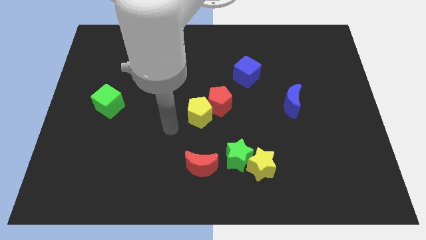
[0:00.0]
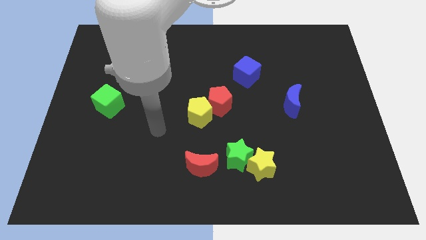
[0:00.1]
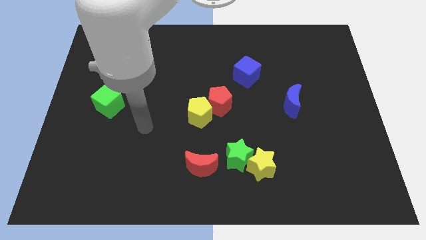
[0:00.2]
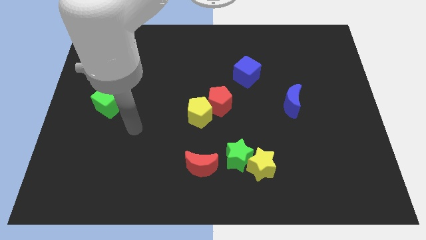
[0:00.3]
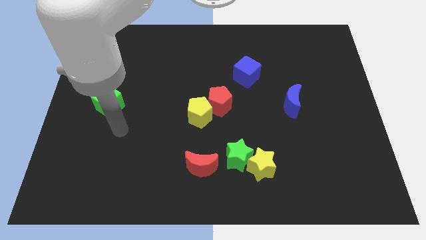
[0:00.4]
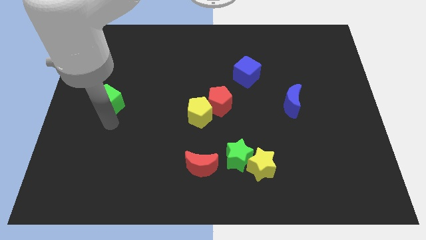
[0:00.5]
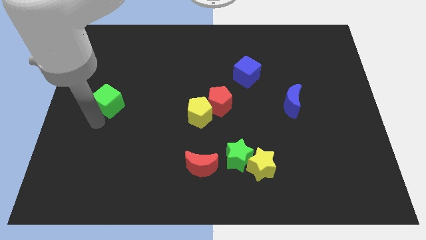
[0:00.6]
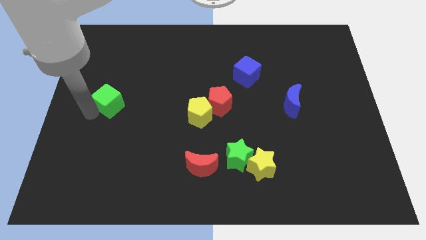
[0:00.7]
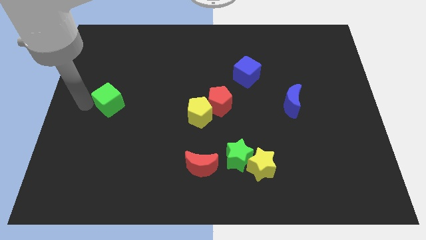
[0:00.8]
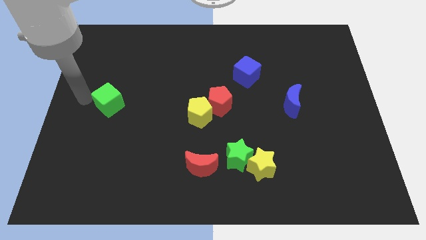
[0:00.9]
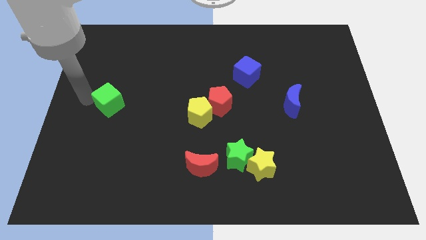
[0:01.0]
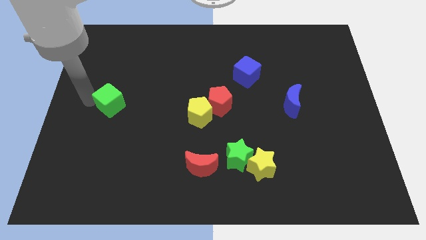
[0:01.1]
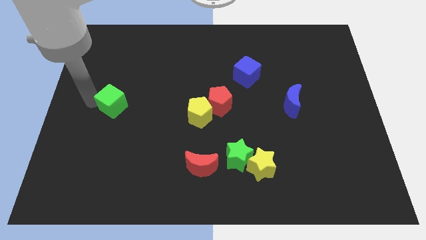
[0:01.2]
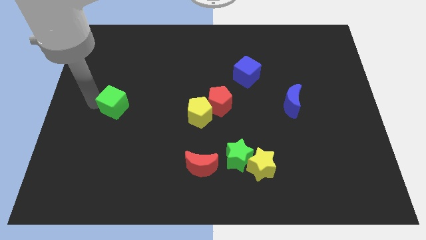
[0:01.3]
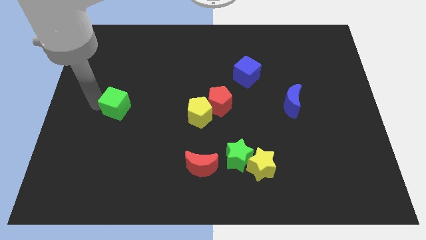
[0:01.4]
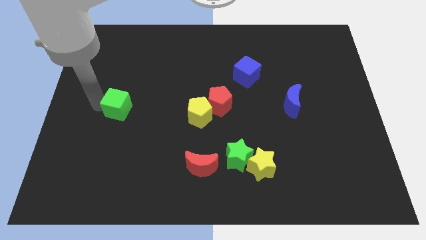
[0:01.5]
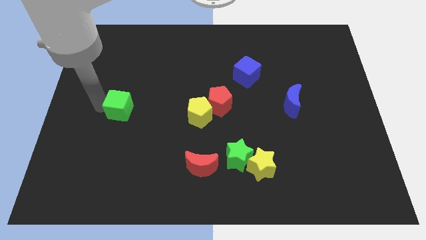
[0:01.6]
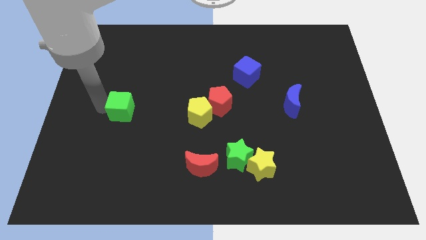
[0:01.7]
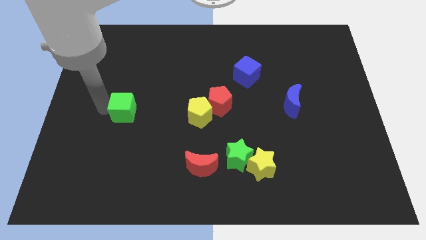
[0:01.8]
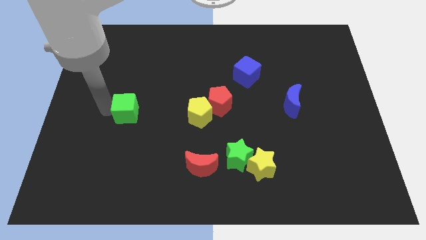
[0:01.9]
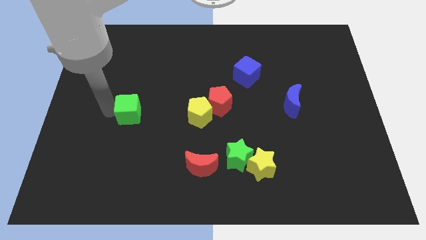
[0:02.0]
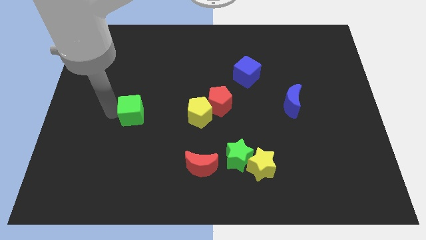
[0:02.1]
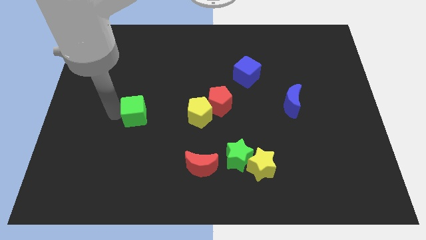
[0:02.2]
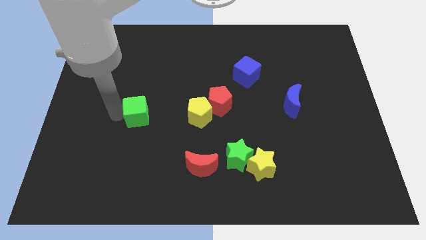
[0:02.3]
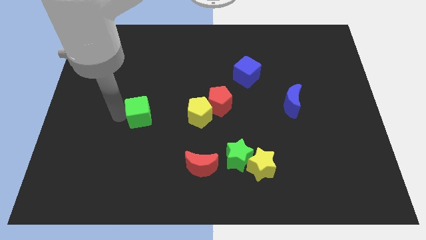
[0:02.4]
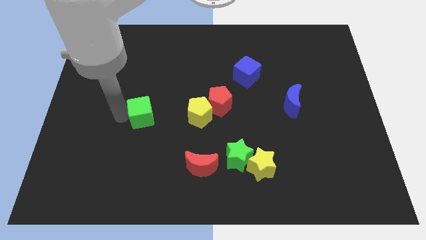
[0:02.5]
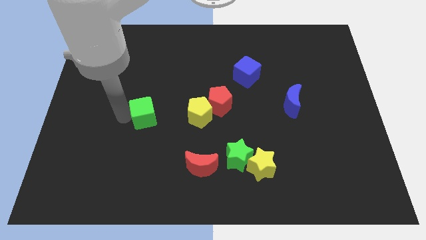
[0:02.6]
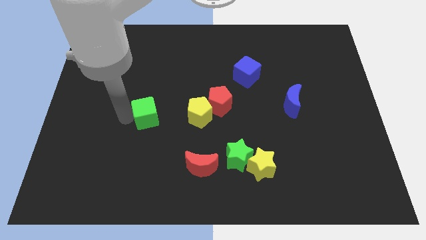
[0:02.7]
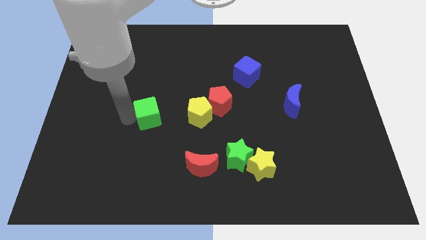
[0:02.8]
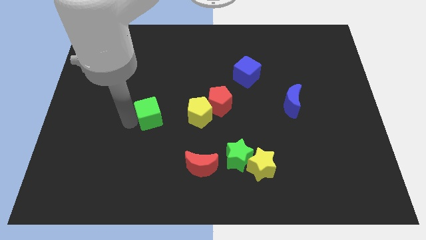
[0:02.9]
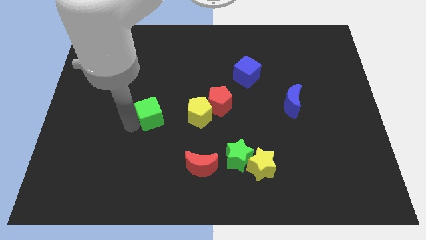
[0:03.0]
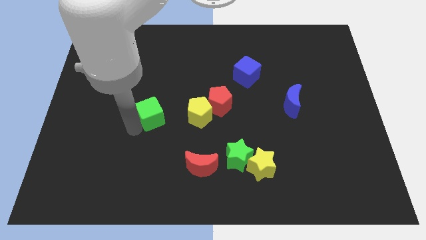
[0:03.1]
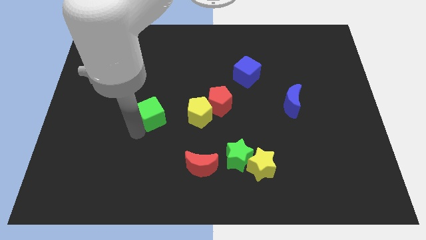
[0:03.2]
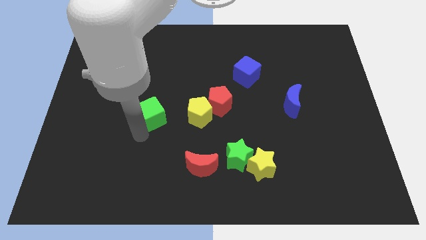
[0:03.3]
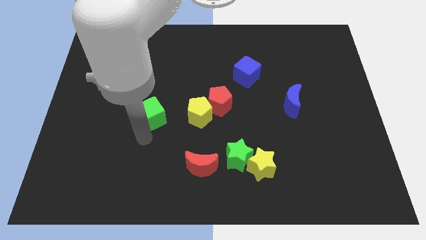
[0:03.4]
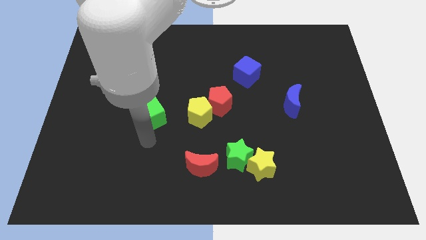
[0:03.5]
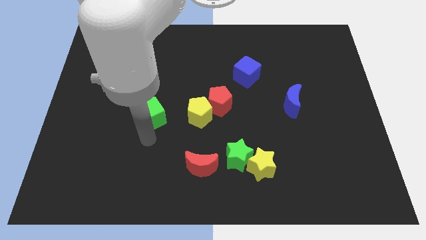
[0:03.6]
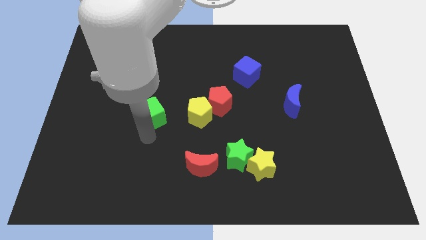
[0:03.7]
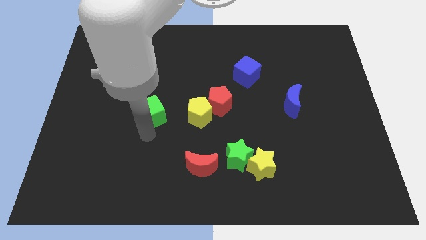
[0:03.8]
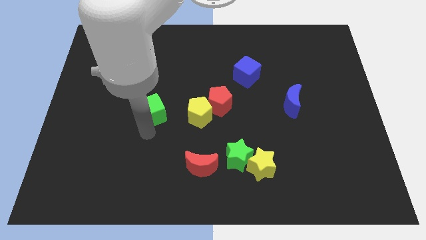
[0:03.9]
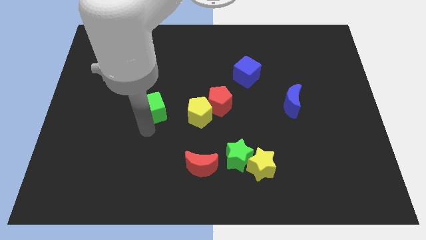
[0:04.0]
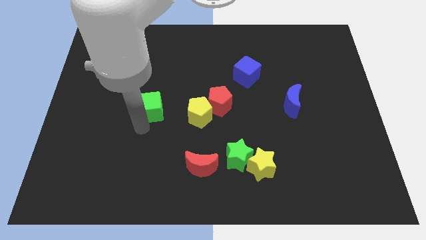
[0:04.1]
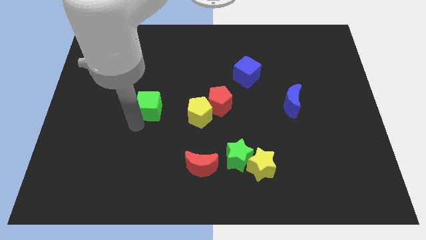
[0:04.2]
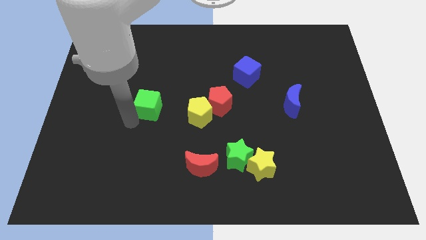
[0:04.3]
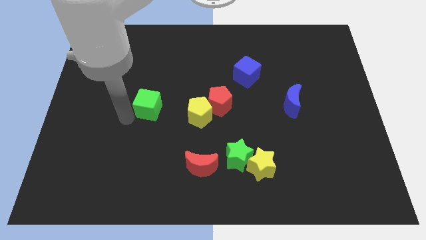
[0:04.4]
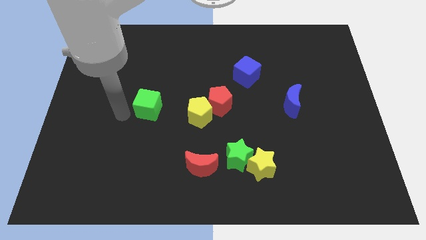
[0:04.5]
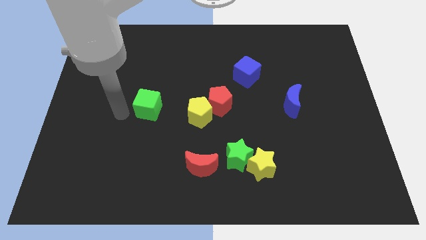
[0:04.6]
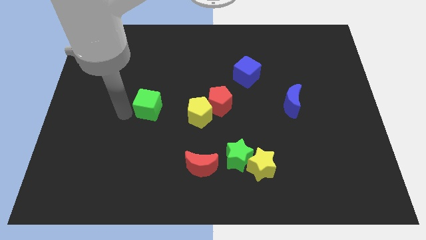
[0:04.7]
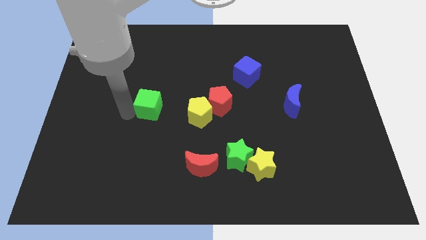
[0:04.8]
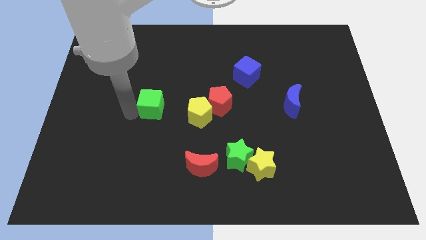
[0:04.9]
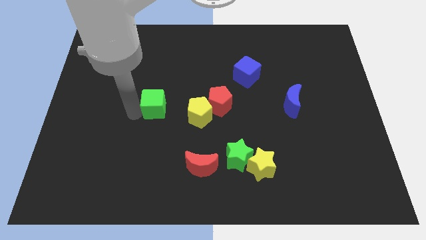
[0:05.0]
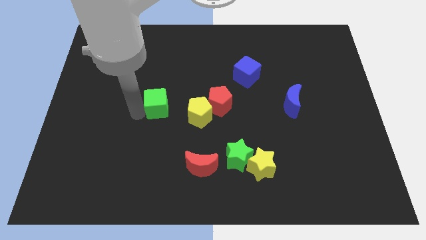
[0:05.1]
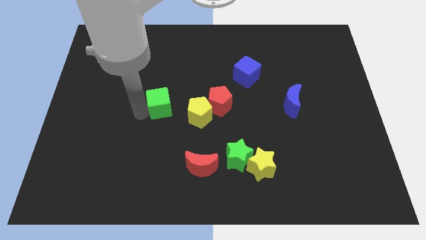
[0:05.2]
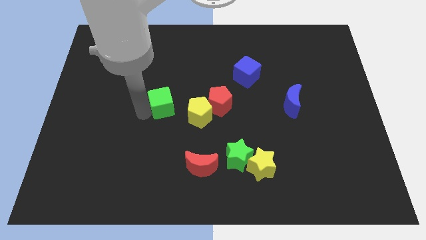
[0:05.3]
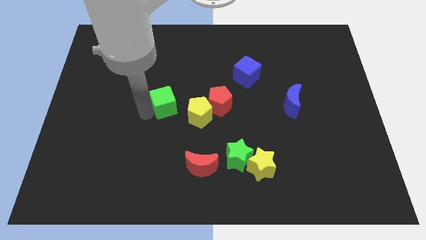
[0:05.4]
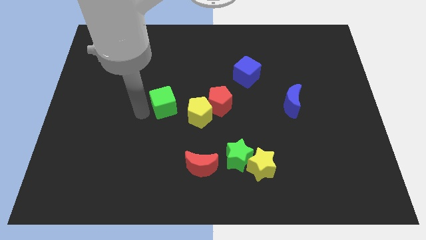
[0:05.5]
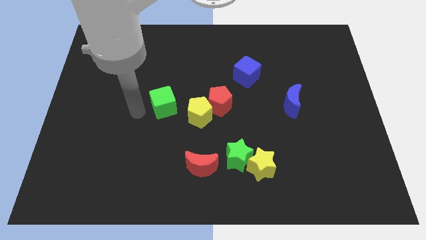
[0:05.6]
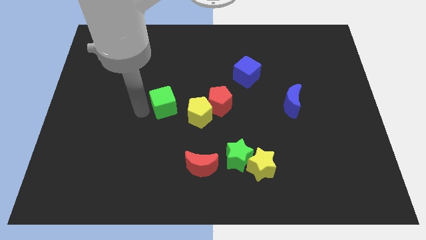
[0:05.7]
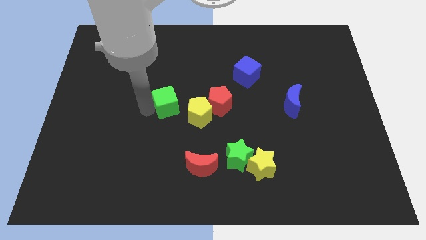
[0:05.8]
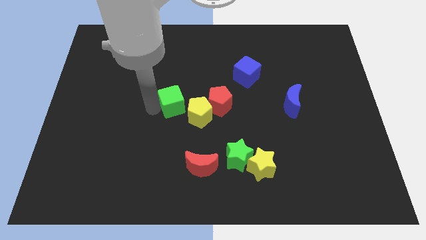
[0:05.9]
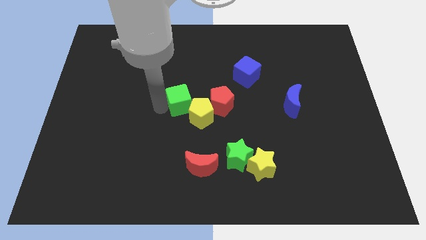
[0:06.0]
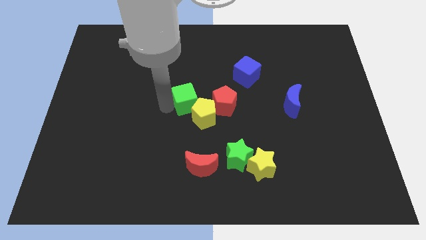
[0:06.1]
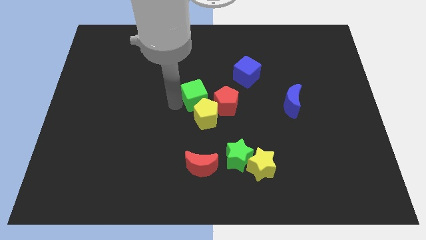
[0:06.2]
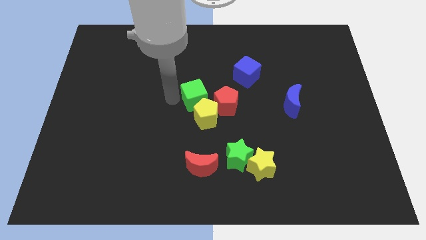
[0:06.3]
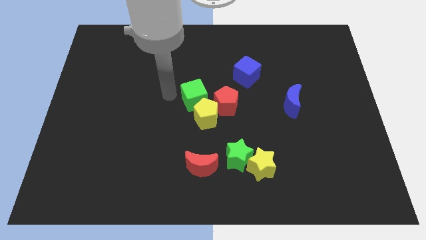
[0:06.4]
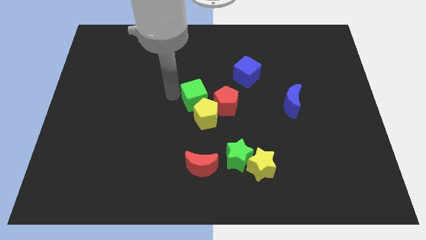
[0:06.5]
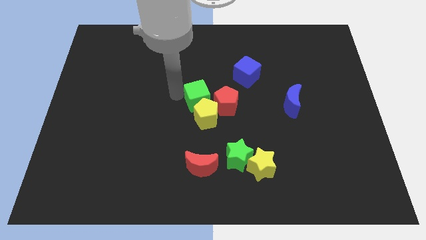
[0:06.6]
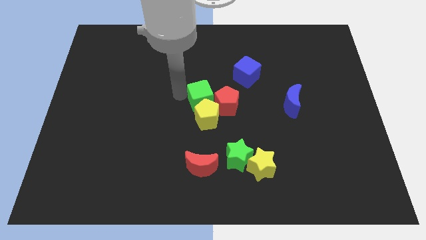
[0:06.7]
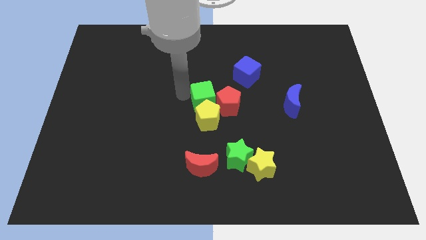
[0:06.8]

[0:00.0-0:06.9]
move the green cube next to the red pentagon
